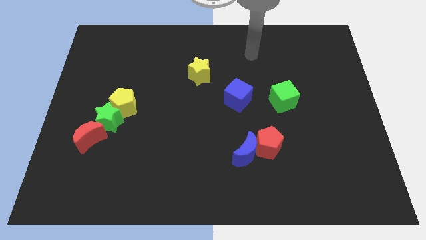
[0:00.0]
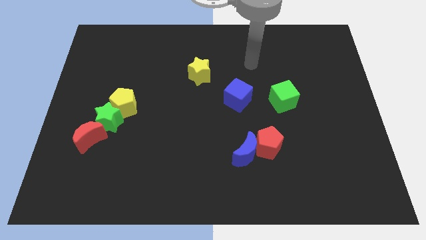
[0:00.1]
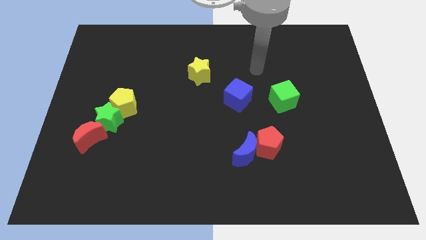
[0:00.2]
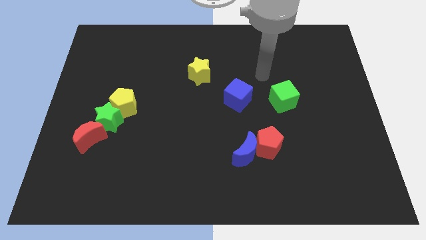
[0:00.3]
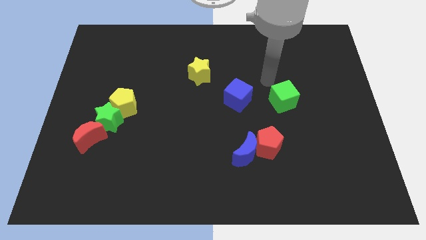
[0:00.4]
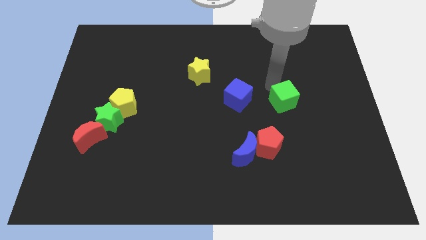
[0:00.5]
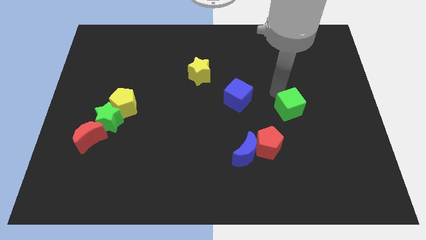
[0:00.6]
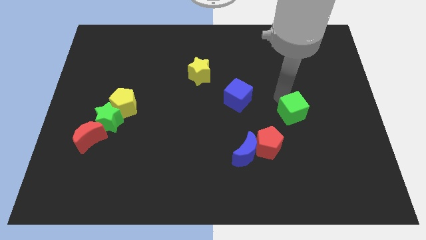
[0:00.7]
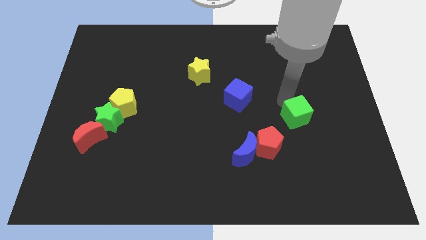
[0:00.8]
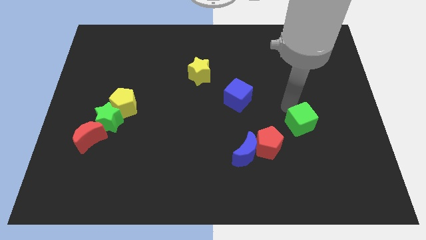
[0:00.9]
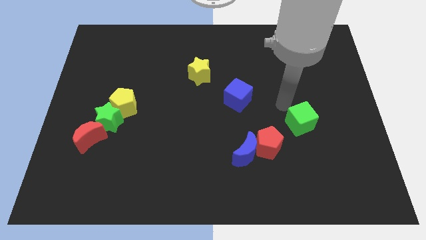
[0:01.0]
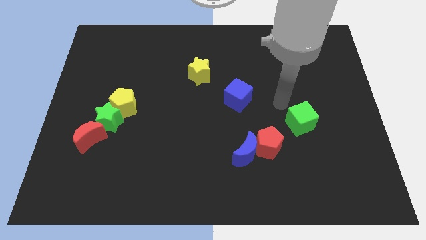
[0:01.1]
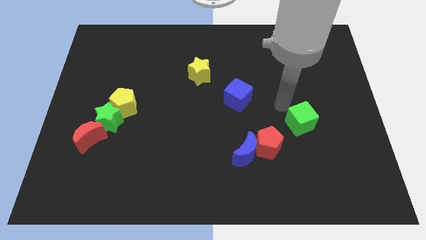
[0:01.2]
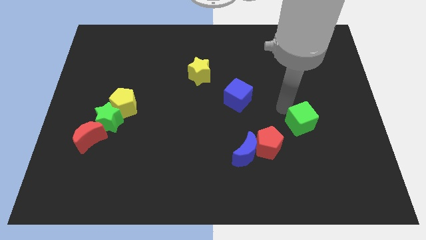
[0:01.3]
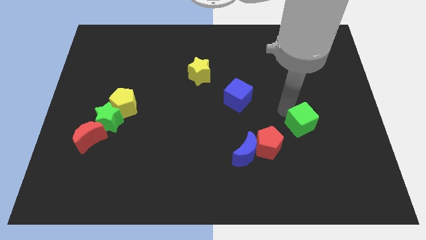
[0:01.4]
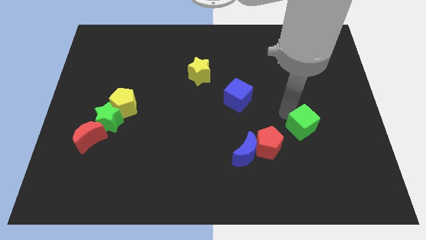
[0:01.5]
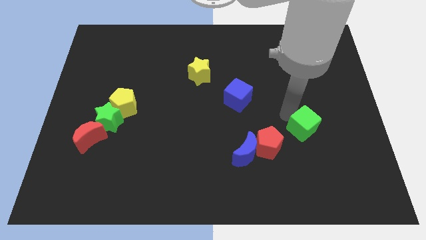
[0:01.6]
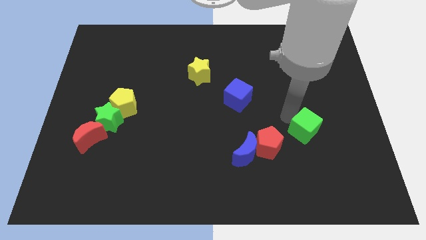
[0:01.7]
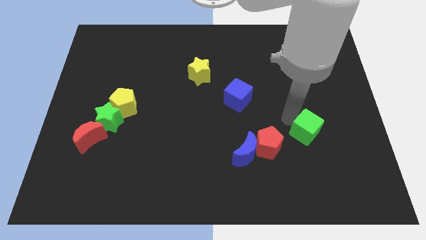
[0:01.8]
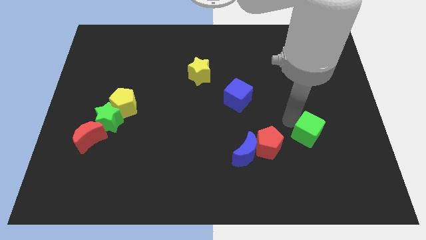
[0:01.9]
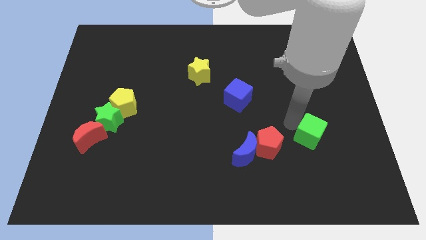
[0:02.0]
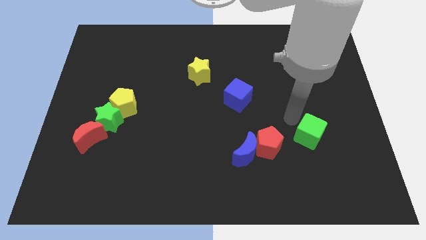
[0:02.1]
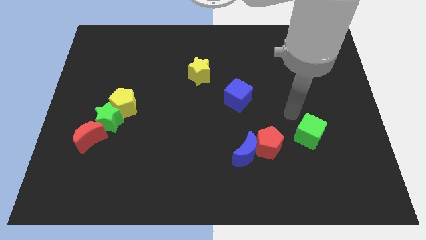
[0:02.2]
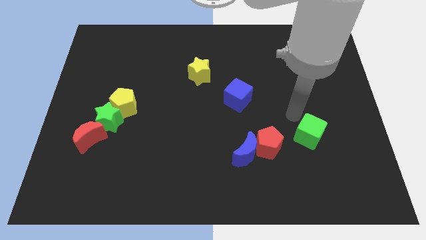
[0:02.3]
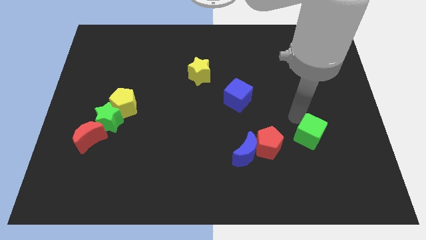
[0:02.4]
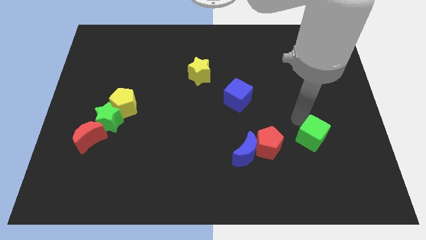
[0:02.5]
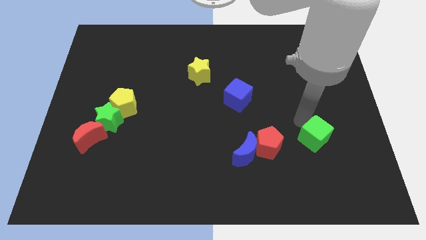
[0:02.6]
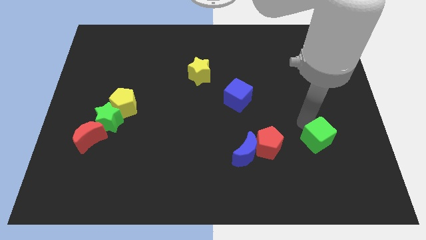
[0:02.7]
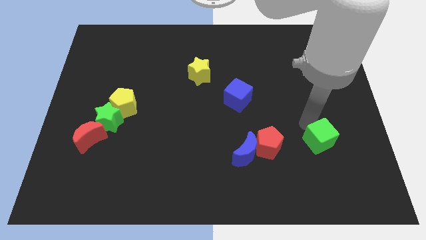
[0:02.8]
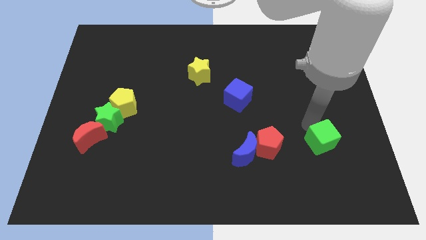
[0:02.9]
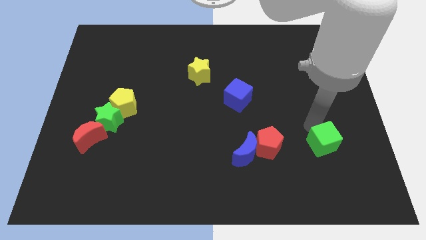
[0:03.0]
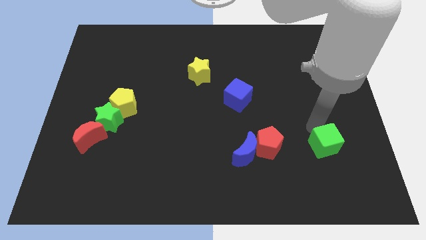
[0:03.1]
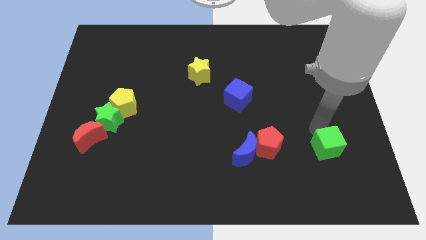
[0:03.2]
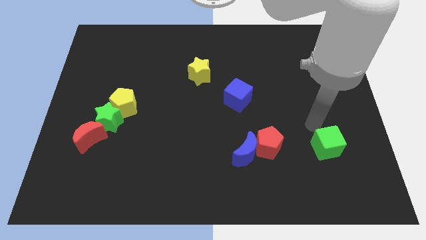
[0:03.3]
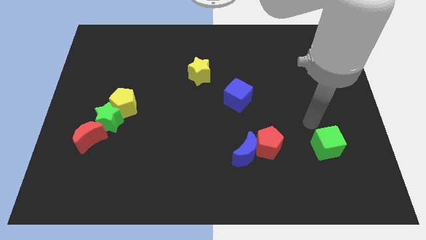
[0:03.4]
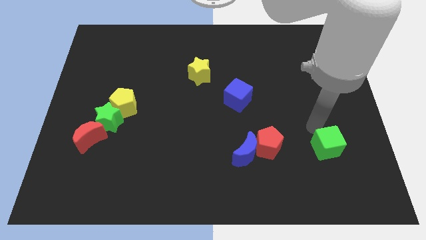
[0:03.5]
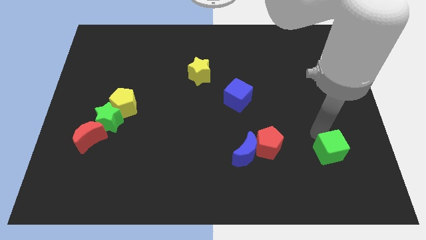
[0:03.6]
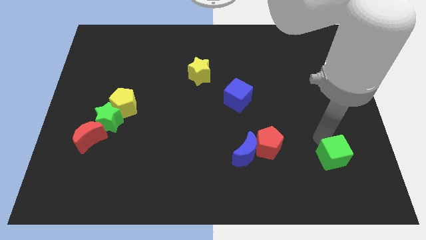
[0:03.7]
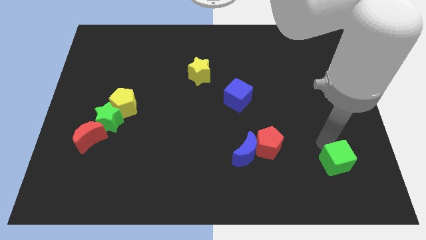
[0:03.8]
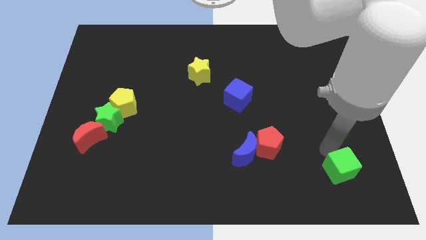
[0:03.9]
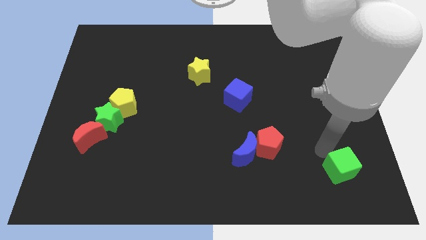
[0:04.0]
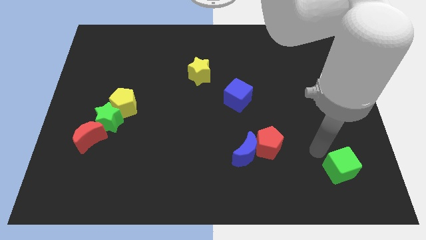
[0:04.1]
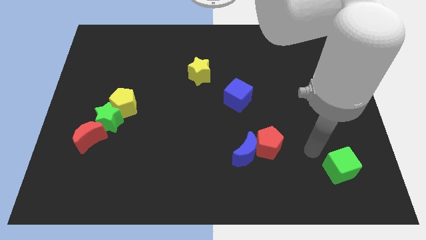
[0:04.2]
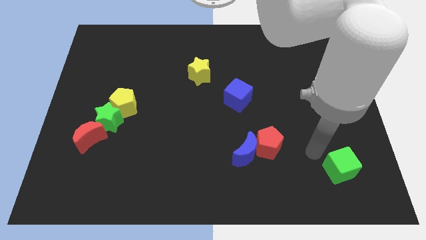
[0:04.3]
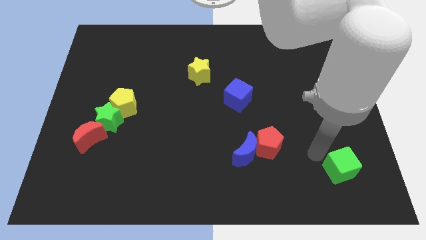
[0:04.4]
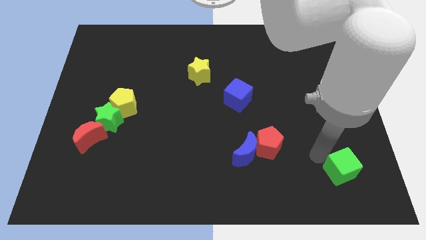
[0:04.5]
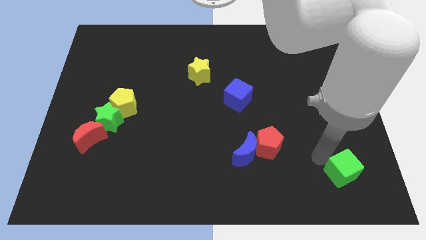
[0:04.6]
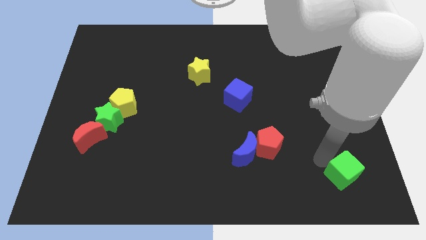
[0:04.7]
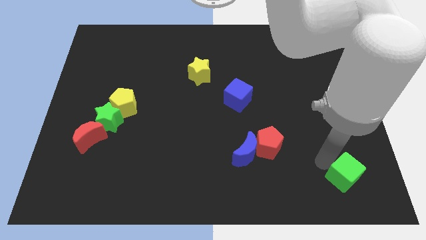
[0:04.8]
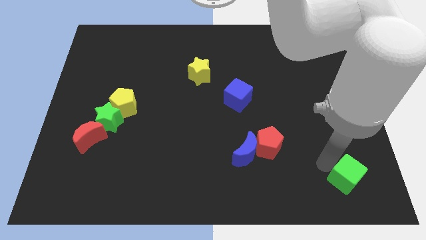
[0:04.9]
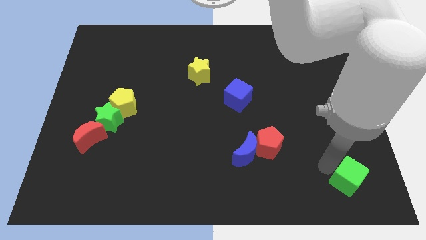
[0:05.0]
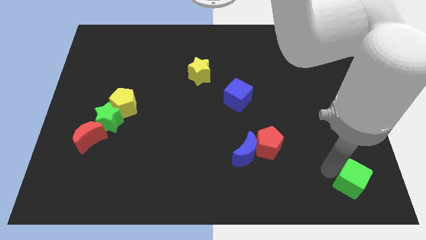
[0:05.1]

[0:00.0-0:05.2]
slide the green cube to the bottom right

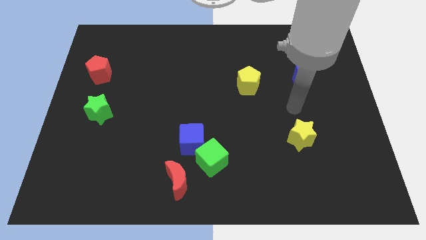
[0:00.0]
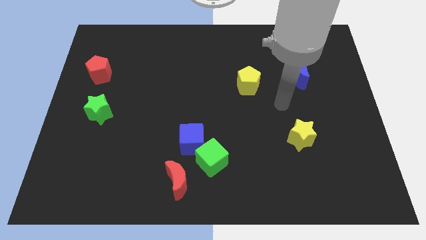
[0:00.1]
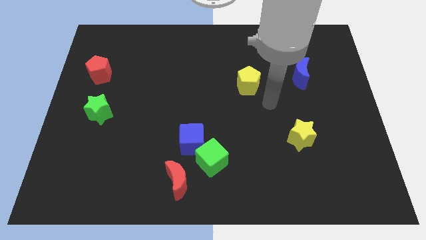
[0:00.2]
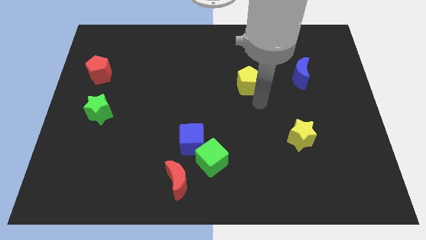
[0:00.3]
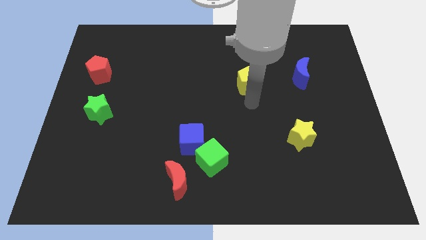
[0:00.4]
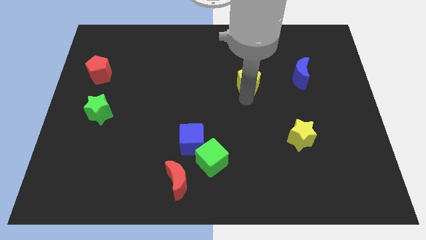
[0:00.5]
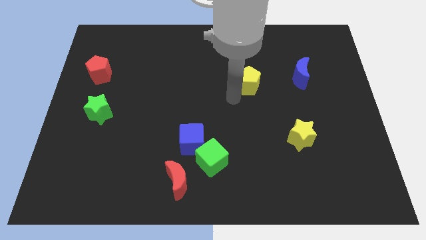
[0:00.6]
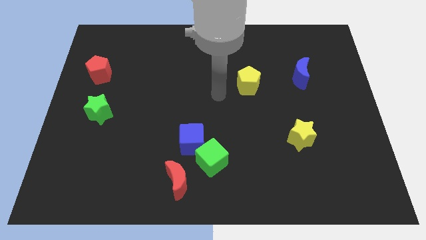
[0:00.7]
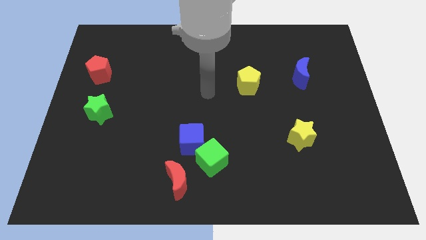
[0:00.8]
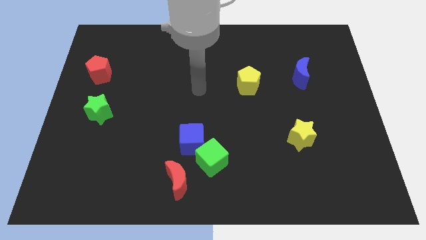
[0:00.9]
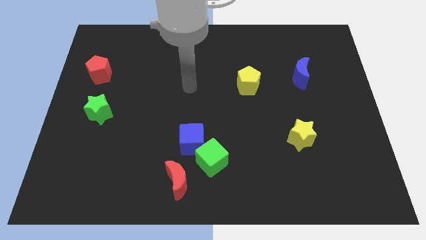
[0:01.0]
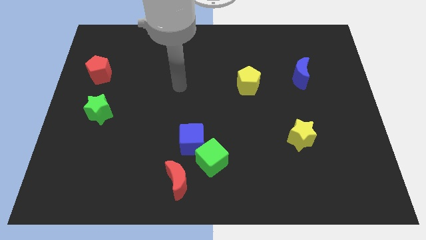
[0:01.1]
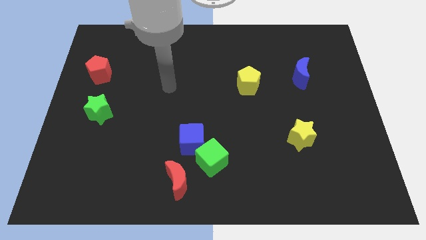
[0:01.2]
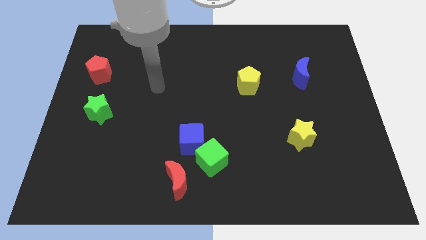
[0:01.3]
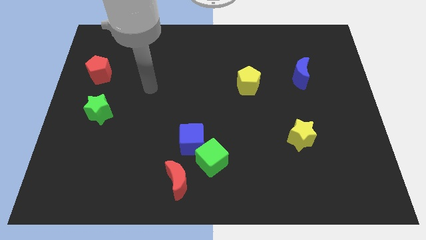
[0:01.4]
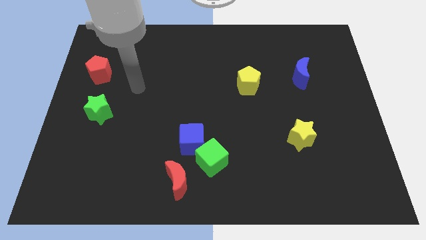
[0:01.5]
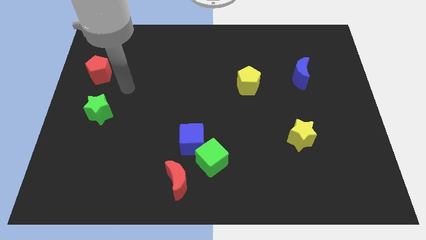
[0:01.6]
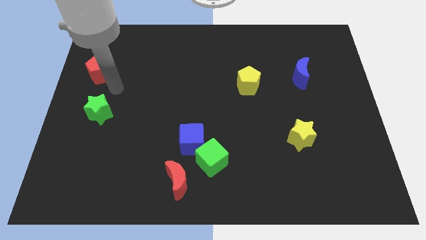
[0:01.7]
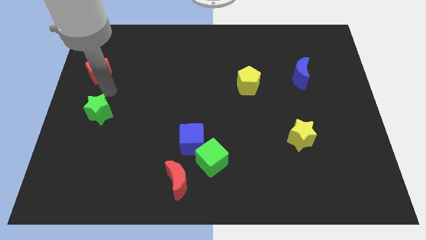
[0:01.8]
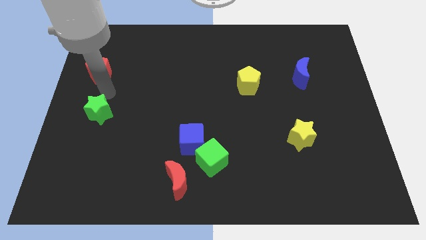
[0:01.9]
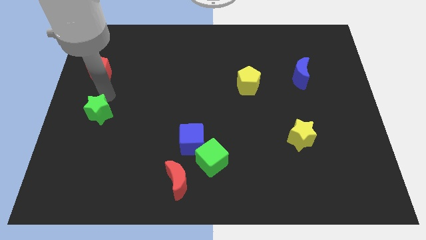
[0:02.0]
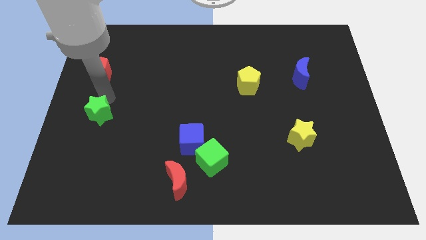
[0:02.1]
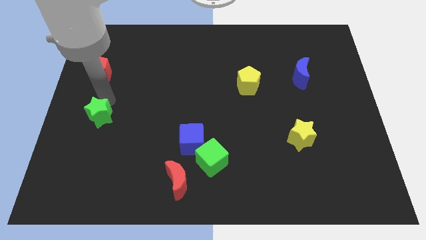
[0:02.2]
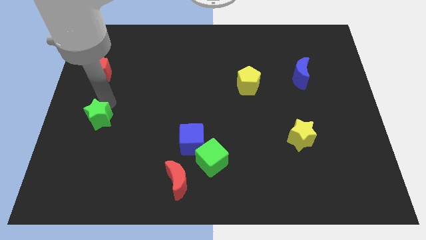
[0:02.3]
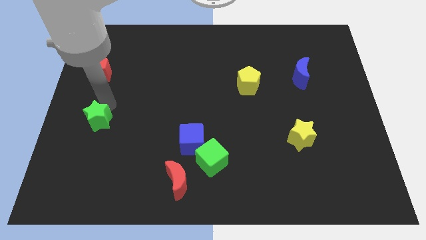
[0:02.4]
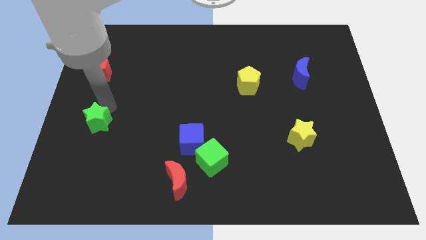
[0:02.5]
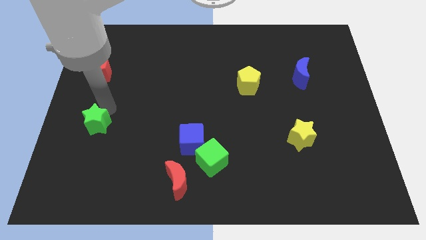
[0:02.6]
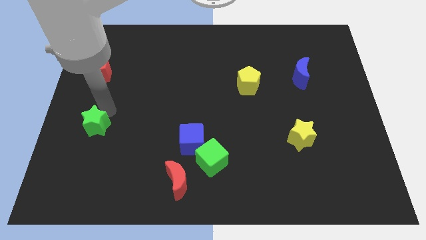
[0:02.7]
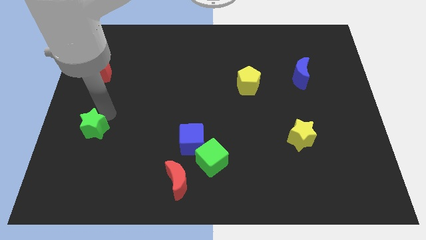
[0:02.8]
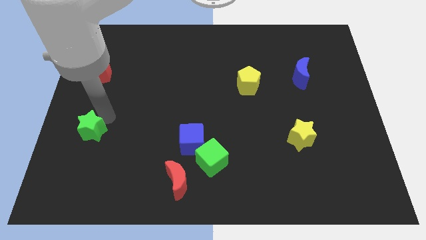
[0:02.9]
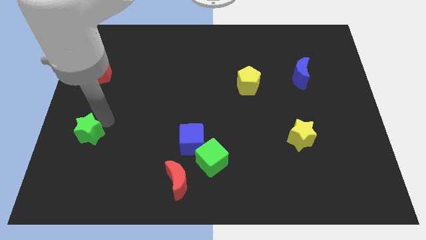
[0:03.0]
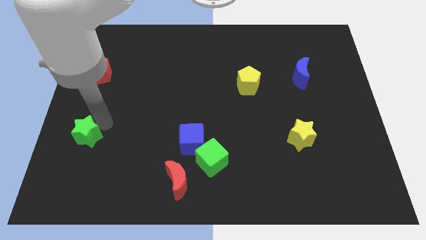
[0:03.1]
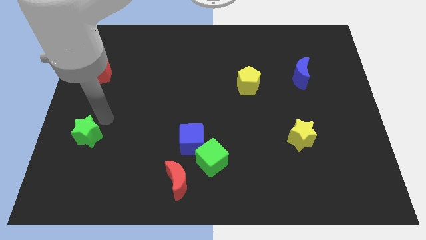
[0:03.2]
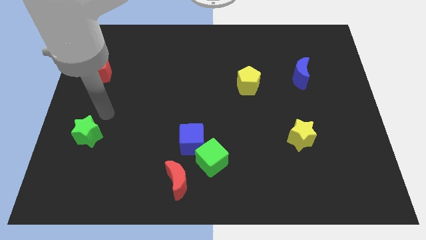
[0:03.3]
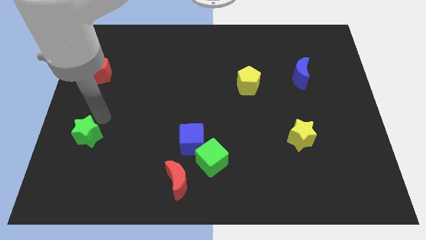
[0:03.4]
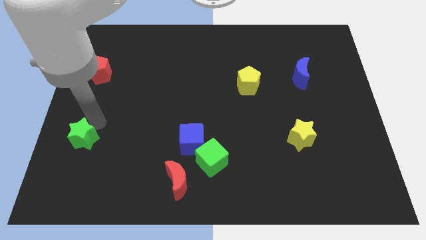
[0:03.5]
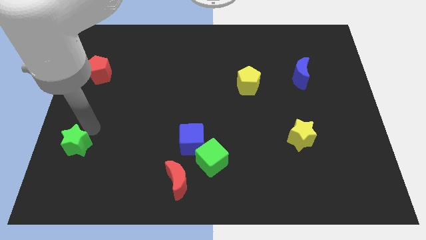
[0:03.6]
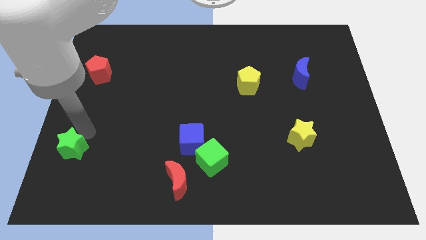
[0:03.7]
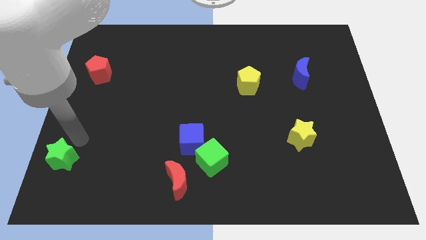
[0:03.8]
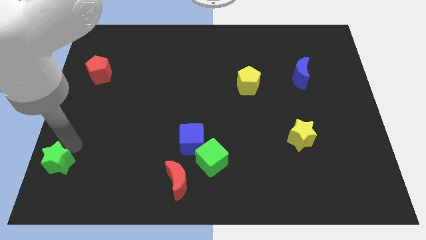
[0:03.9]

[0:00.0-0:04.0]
slide the green star to the lower left corner
